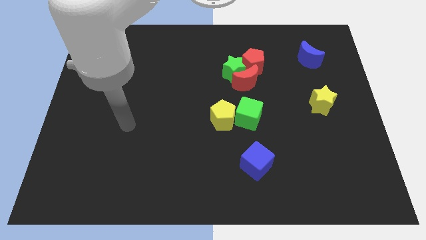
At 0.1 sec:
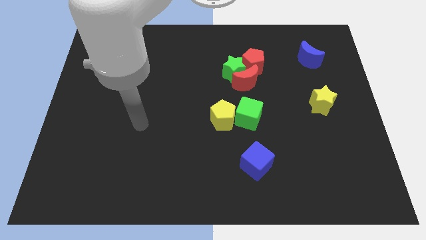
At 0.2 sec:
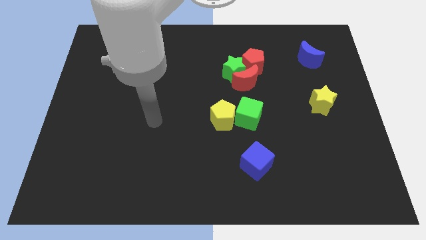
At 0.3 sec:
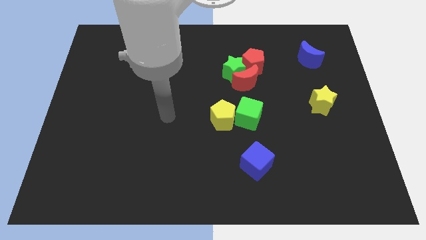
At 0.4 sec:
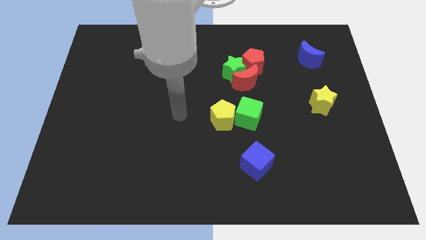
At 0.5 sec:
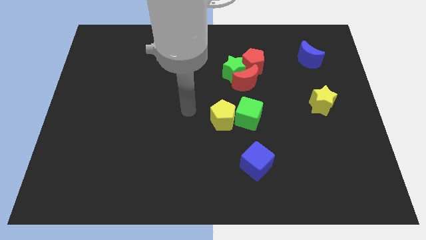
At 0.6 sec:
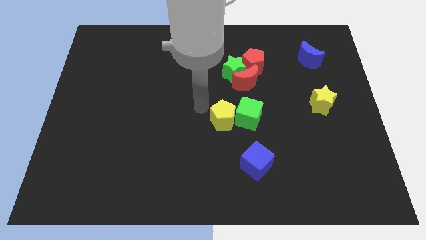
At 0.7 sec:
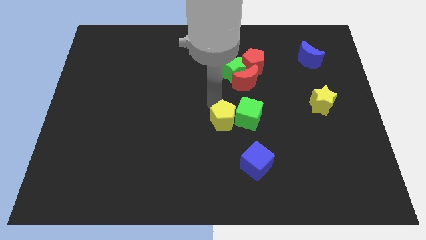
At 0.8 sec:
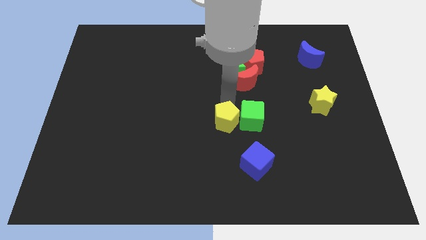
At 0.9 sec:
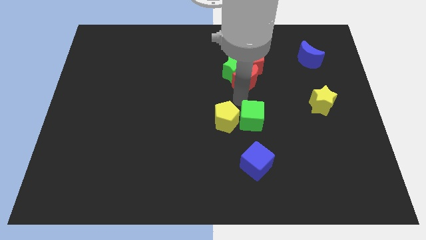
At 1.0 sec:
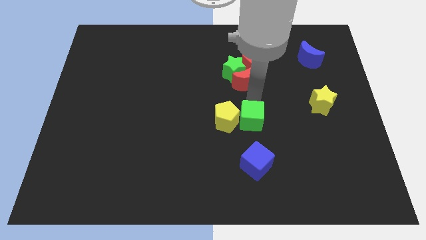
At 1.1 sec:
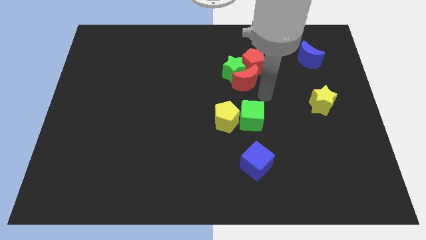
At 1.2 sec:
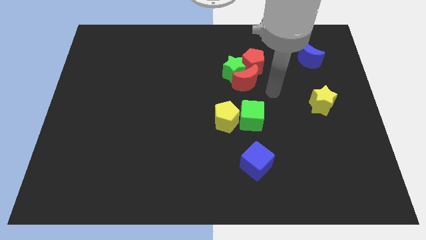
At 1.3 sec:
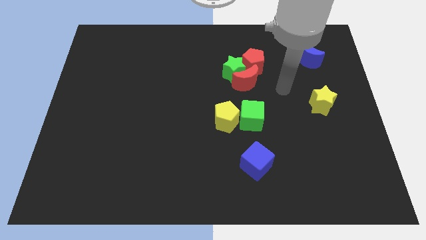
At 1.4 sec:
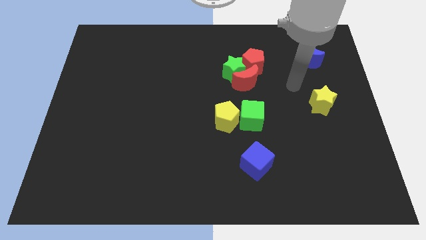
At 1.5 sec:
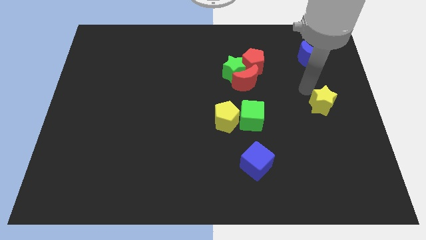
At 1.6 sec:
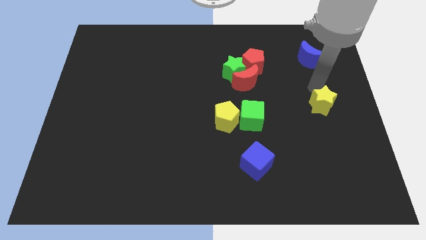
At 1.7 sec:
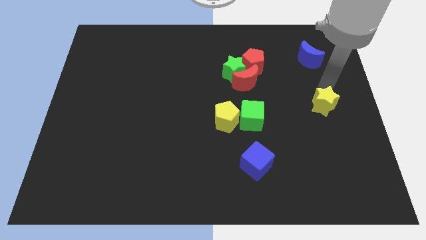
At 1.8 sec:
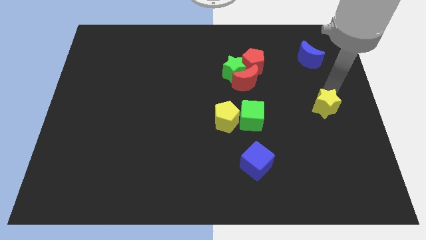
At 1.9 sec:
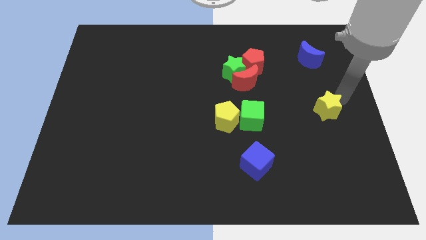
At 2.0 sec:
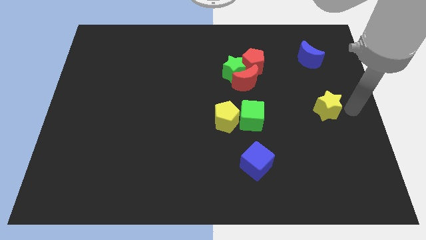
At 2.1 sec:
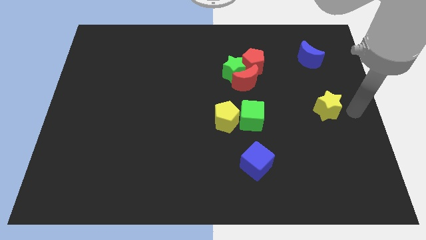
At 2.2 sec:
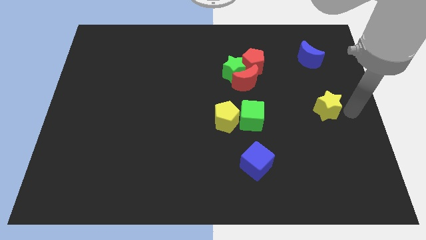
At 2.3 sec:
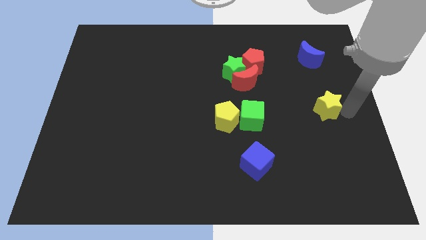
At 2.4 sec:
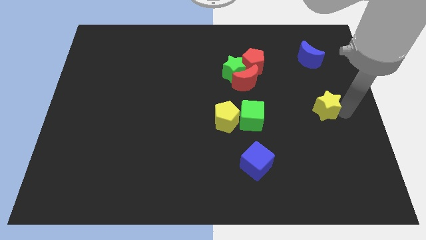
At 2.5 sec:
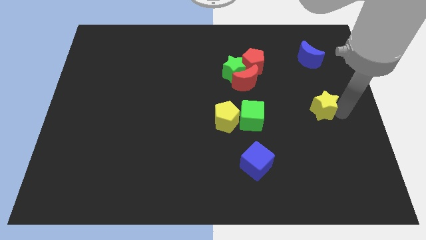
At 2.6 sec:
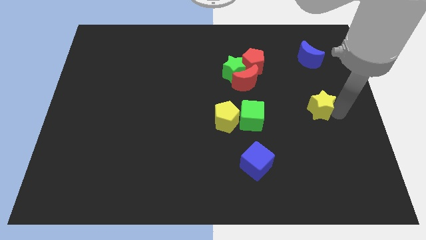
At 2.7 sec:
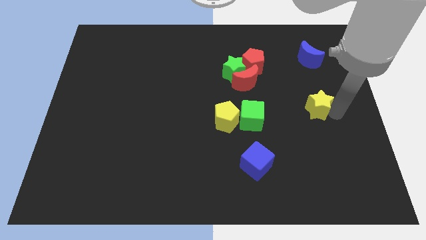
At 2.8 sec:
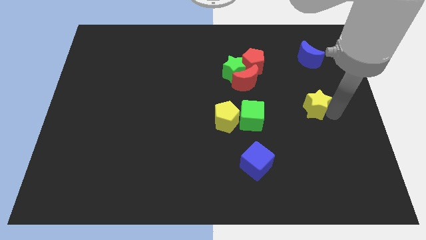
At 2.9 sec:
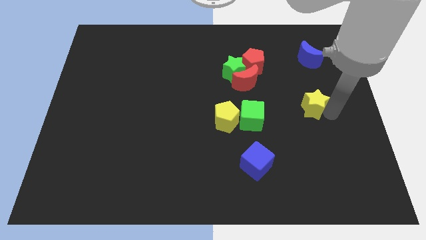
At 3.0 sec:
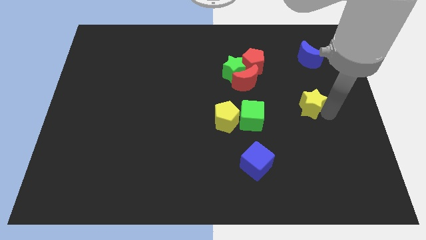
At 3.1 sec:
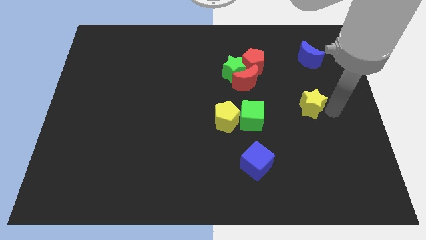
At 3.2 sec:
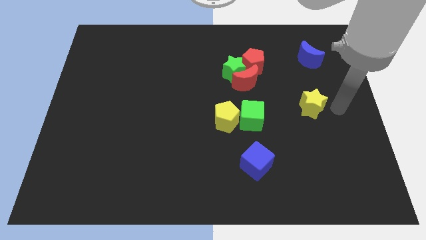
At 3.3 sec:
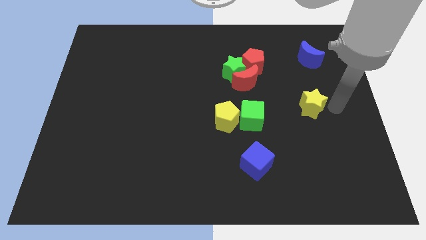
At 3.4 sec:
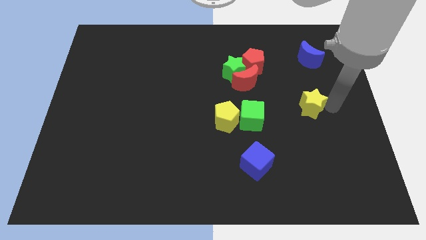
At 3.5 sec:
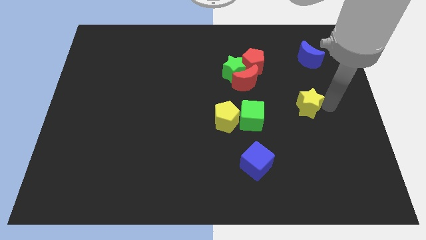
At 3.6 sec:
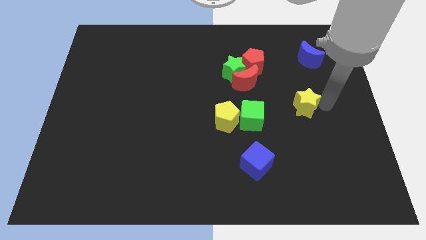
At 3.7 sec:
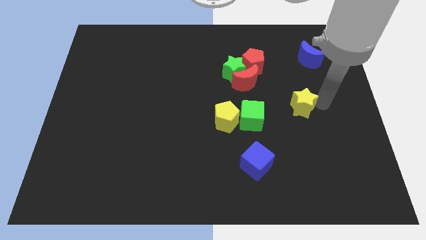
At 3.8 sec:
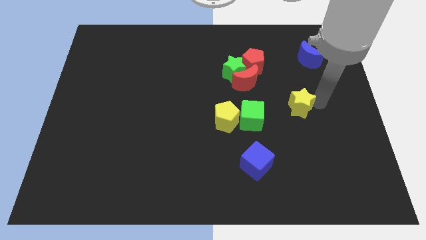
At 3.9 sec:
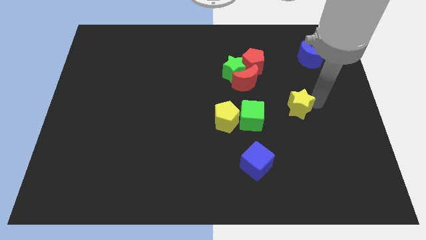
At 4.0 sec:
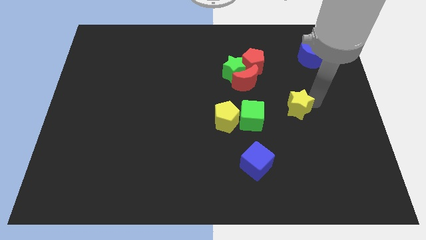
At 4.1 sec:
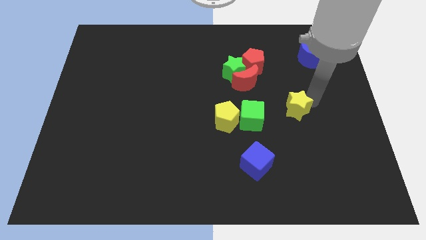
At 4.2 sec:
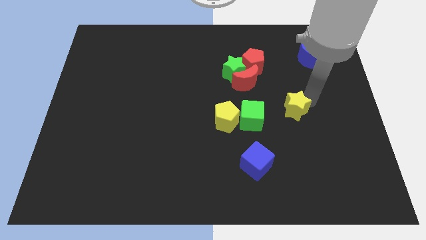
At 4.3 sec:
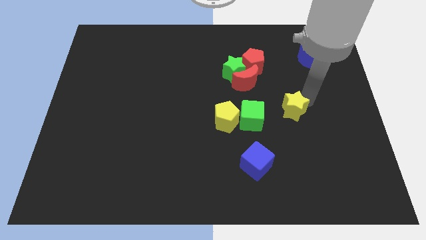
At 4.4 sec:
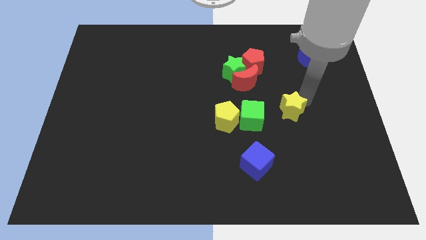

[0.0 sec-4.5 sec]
push the yellow star left a bit

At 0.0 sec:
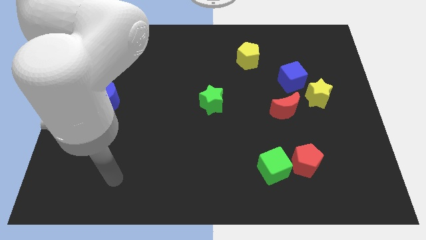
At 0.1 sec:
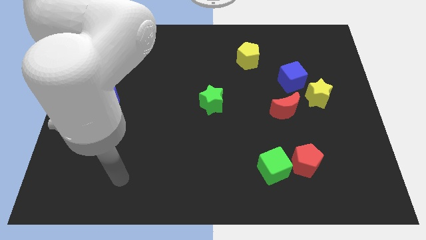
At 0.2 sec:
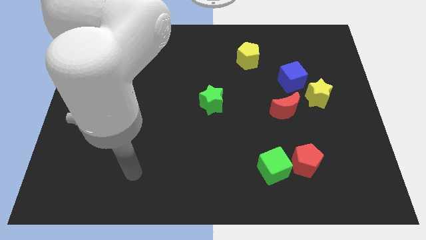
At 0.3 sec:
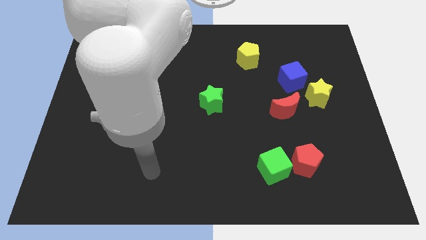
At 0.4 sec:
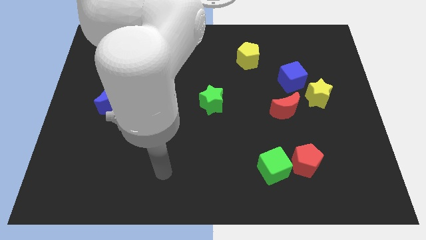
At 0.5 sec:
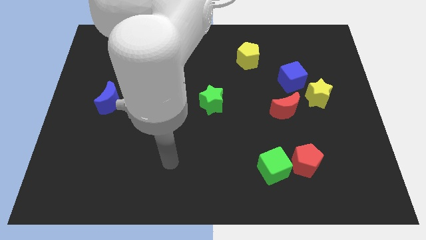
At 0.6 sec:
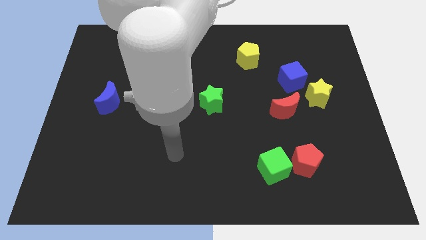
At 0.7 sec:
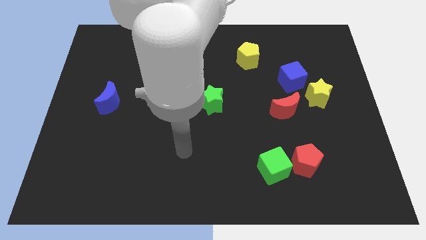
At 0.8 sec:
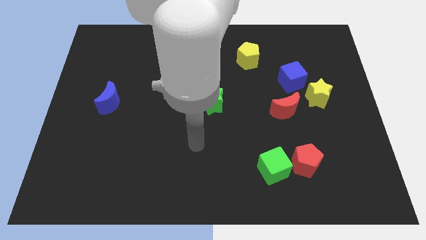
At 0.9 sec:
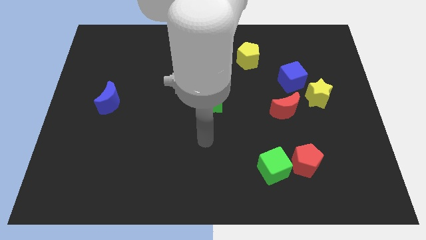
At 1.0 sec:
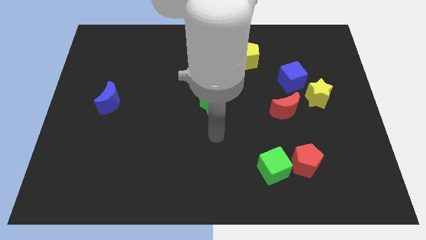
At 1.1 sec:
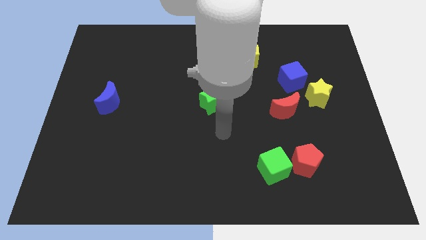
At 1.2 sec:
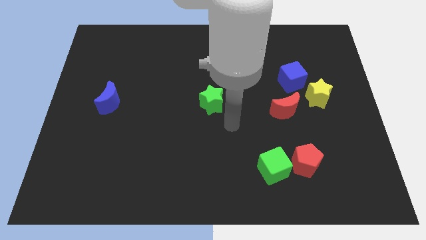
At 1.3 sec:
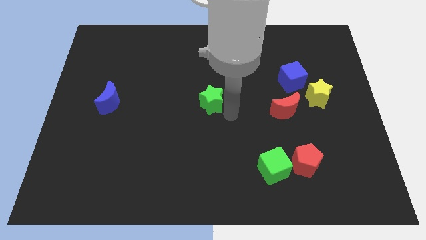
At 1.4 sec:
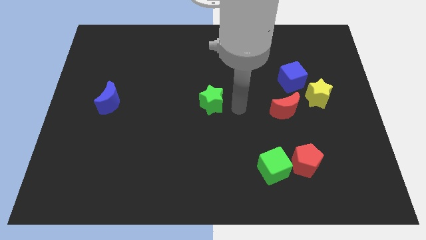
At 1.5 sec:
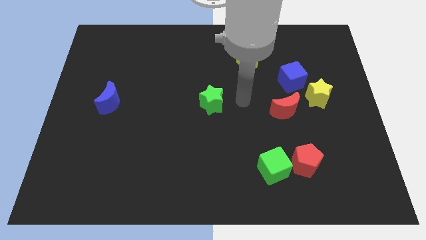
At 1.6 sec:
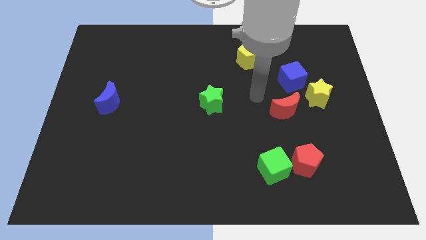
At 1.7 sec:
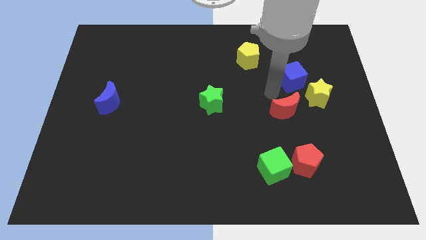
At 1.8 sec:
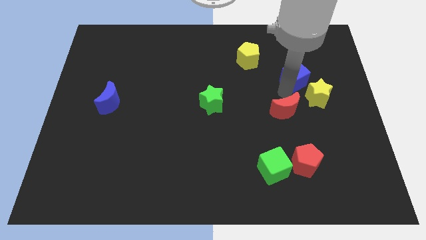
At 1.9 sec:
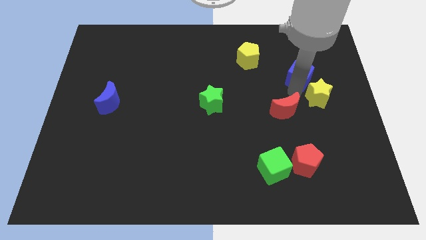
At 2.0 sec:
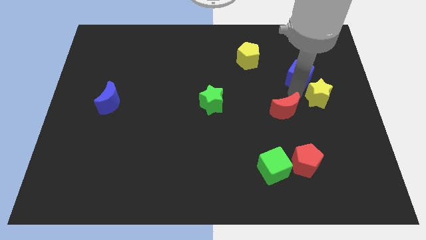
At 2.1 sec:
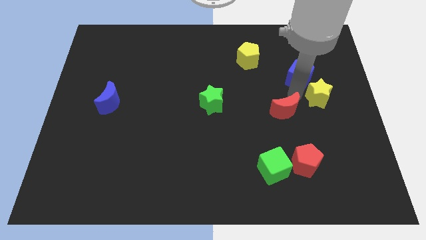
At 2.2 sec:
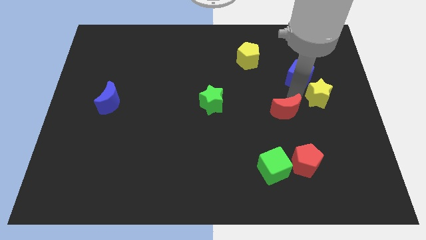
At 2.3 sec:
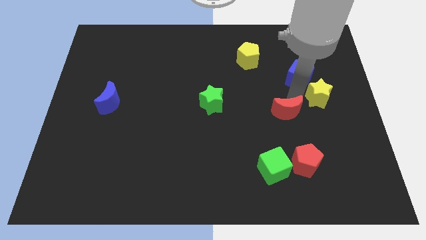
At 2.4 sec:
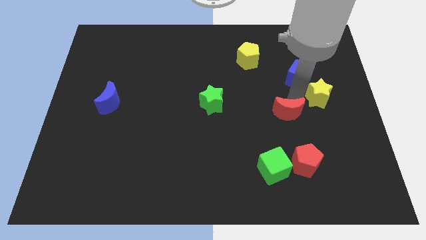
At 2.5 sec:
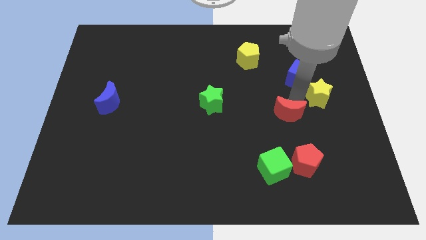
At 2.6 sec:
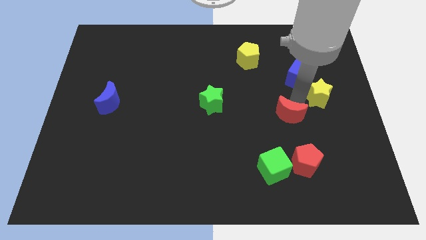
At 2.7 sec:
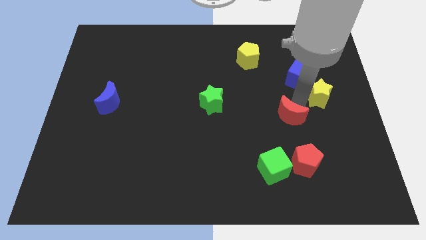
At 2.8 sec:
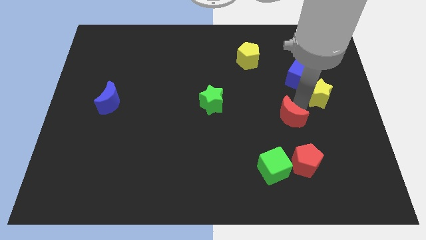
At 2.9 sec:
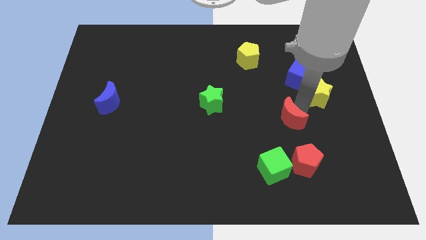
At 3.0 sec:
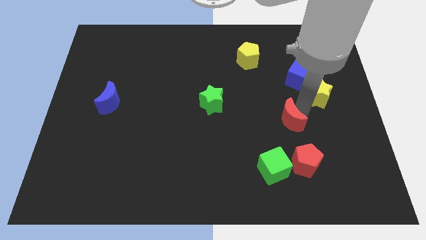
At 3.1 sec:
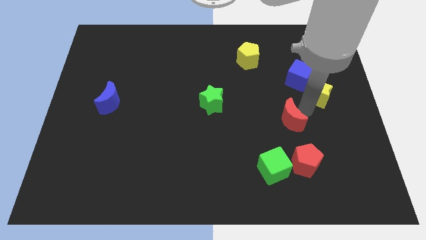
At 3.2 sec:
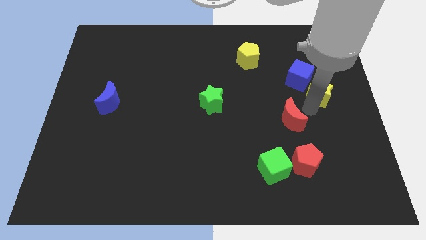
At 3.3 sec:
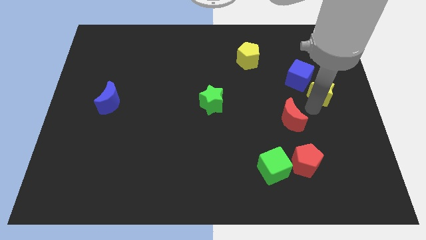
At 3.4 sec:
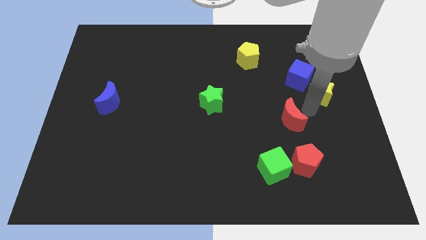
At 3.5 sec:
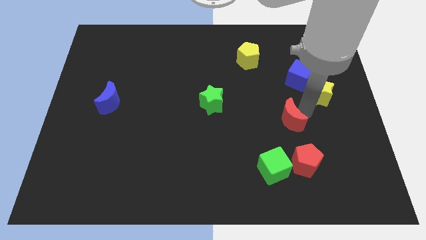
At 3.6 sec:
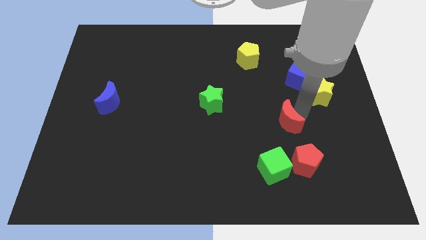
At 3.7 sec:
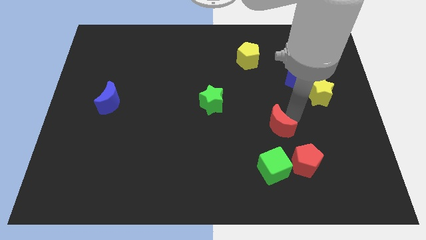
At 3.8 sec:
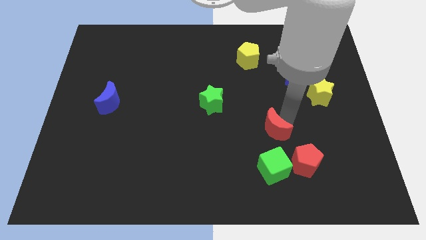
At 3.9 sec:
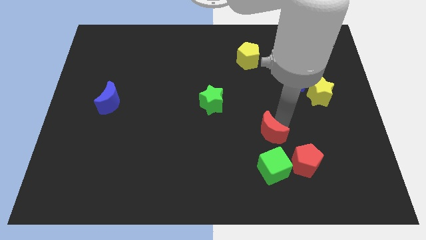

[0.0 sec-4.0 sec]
slightly slide the red moon downwards and to the left diagonally
